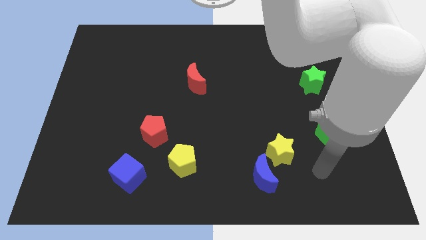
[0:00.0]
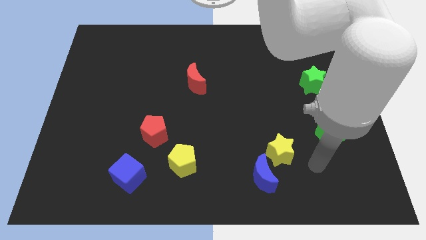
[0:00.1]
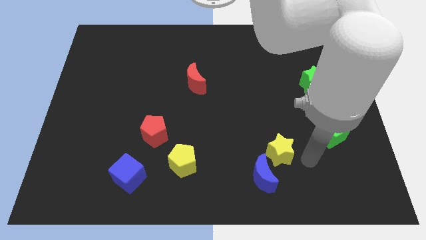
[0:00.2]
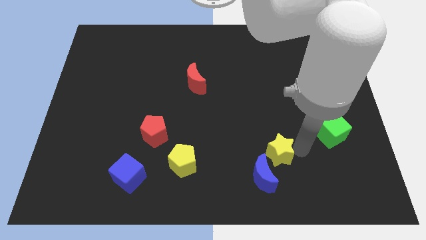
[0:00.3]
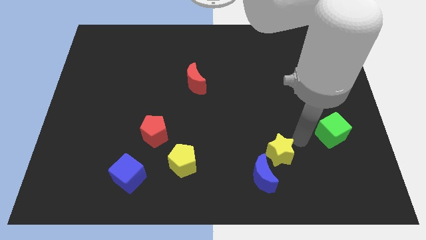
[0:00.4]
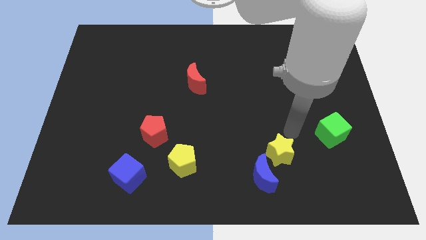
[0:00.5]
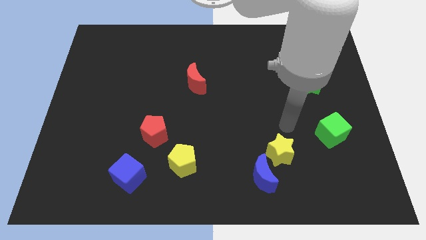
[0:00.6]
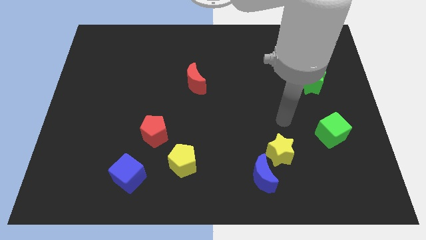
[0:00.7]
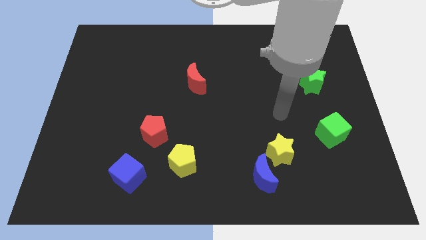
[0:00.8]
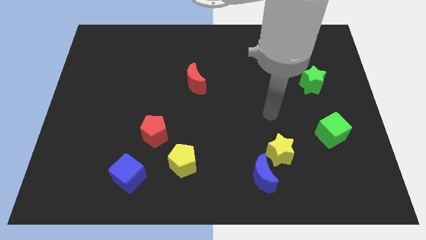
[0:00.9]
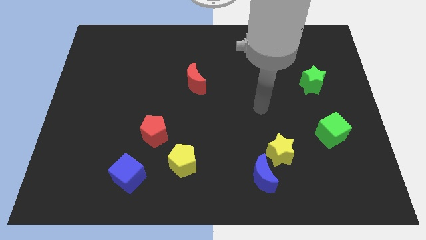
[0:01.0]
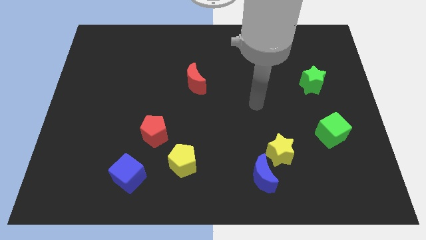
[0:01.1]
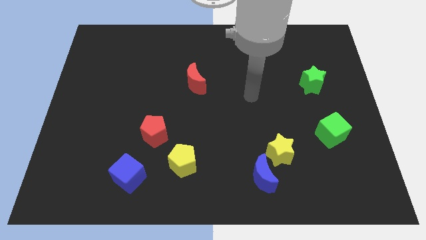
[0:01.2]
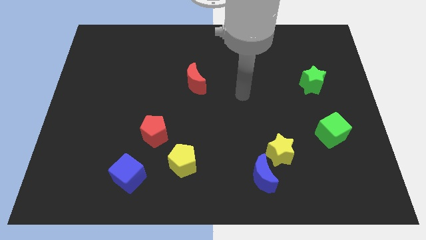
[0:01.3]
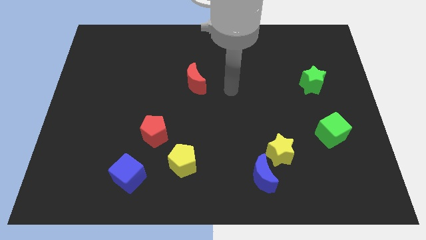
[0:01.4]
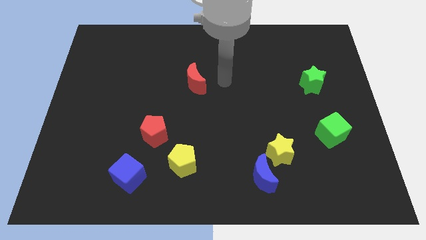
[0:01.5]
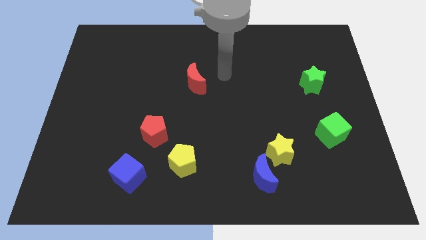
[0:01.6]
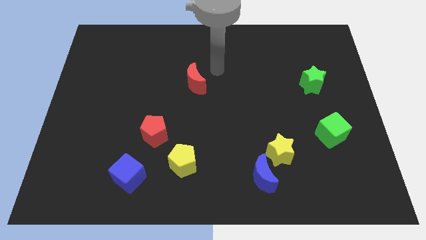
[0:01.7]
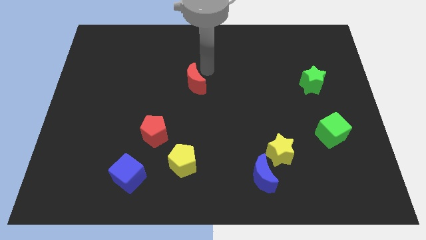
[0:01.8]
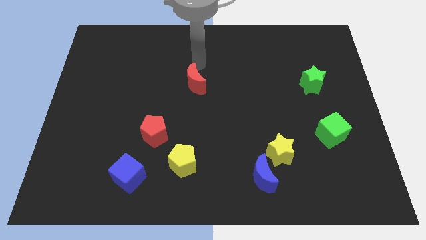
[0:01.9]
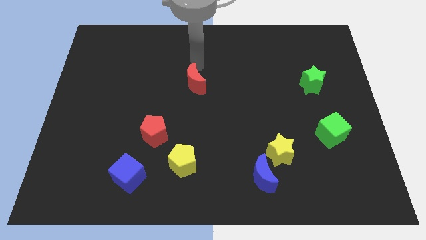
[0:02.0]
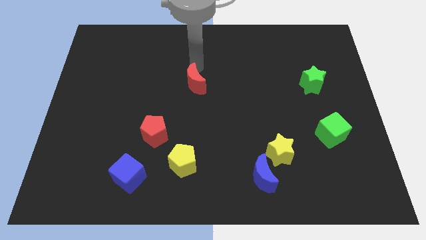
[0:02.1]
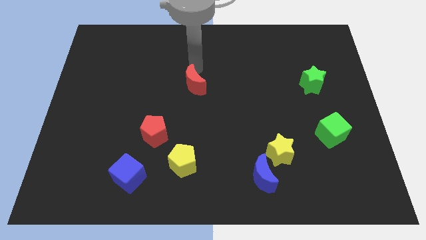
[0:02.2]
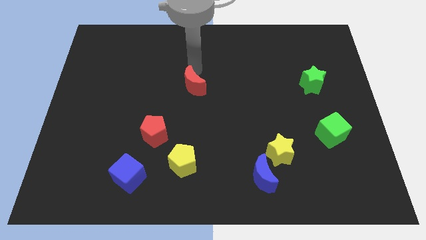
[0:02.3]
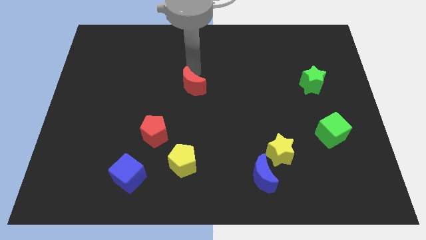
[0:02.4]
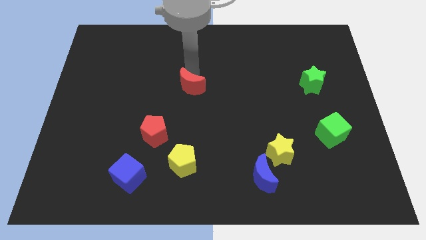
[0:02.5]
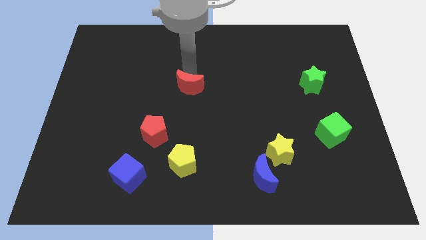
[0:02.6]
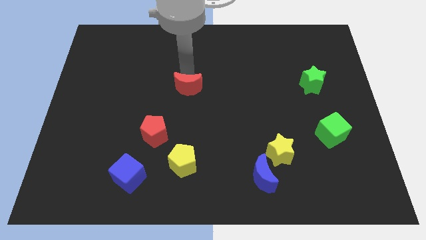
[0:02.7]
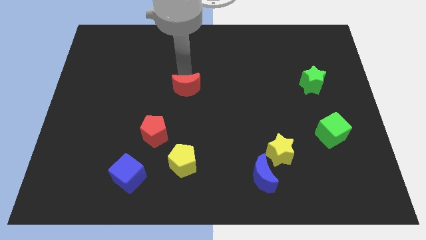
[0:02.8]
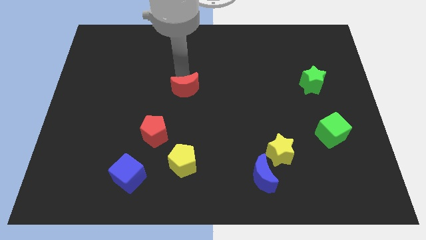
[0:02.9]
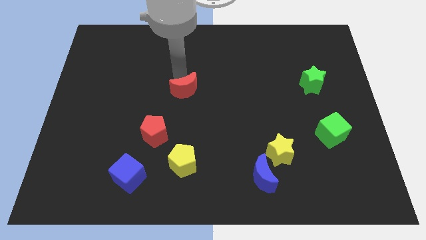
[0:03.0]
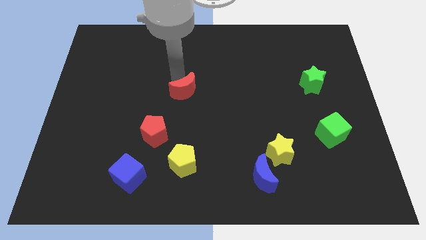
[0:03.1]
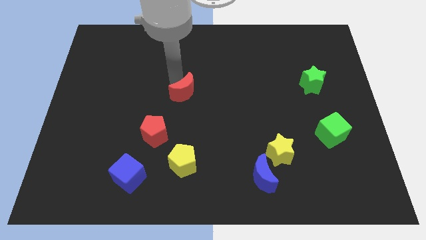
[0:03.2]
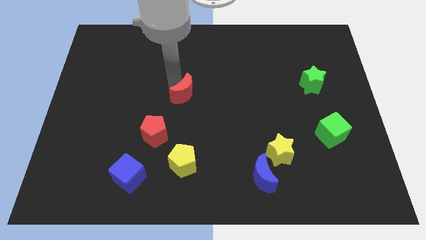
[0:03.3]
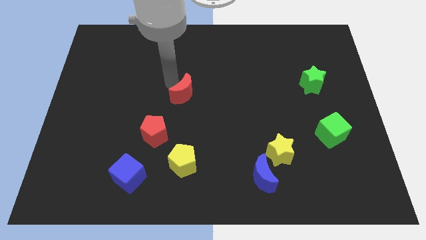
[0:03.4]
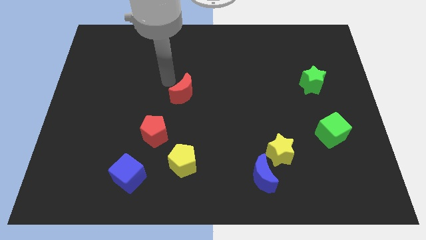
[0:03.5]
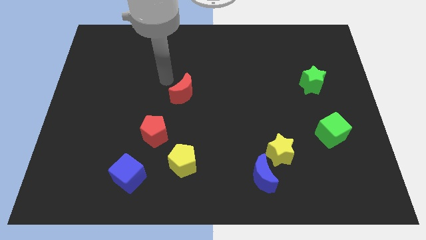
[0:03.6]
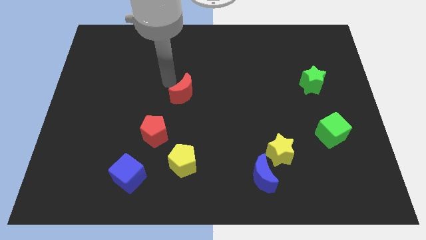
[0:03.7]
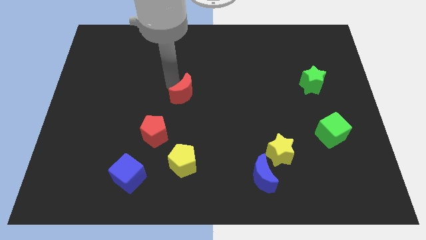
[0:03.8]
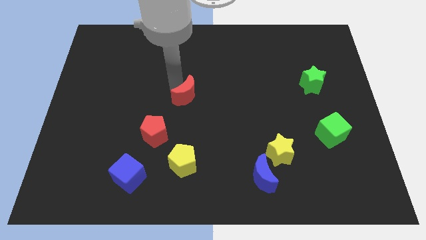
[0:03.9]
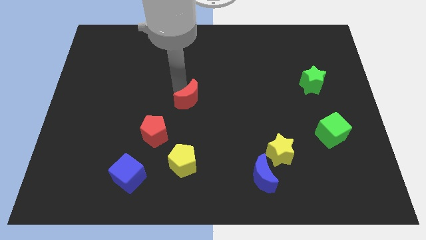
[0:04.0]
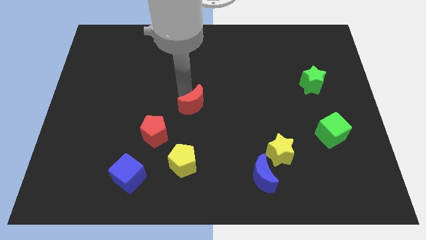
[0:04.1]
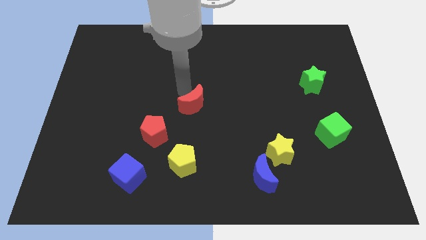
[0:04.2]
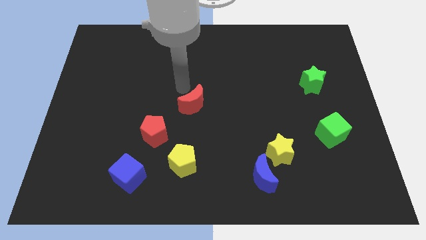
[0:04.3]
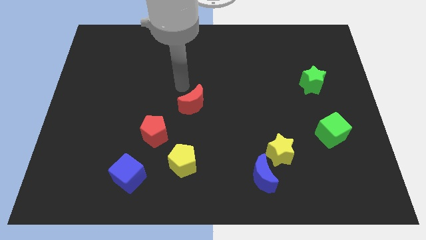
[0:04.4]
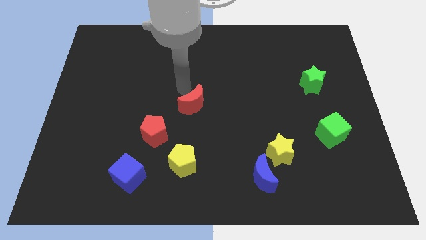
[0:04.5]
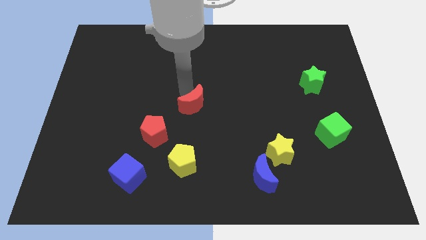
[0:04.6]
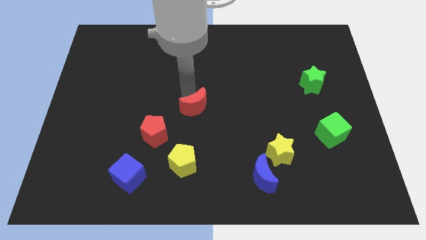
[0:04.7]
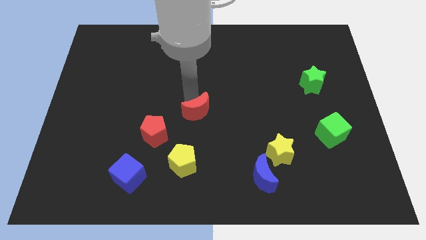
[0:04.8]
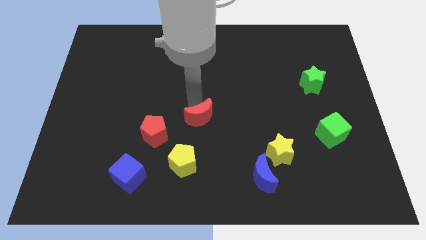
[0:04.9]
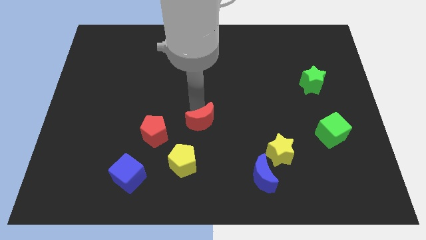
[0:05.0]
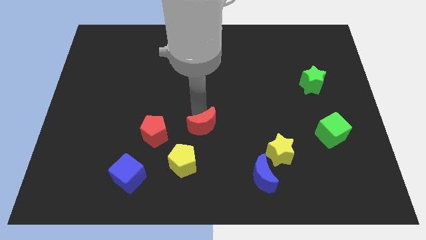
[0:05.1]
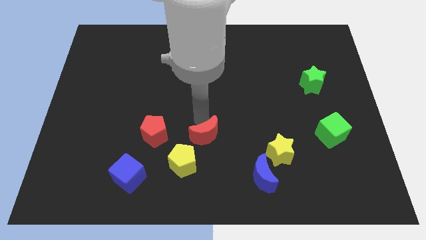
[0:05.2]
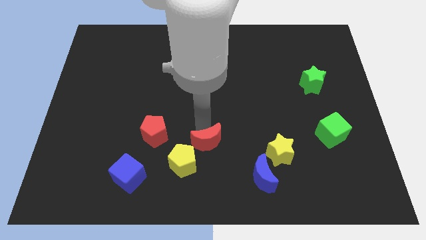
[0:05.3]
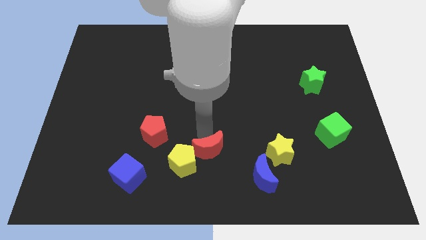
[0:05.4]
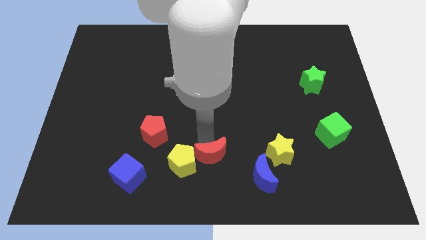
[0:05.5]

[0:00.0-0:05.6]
move the red moon to the bottom
